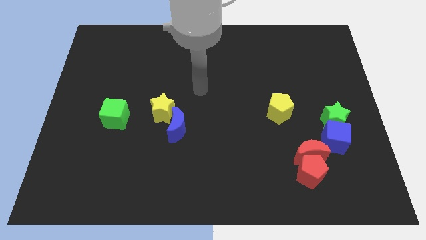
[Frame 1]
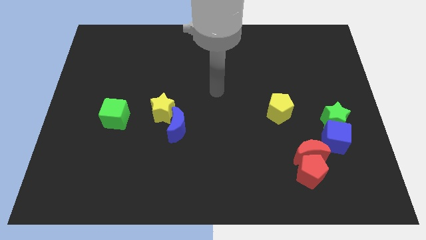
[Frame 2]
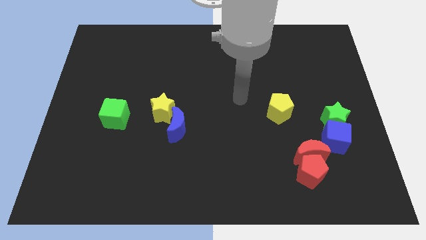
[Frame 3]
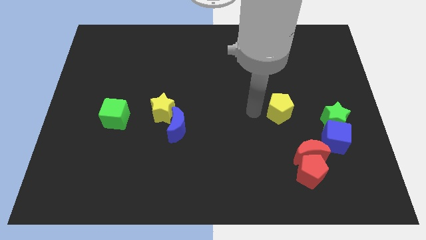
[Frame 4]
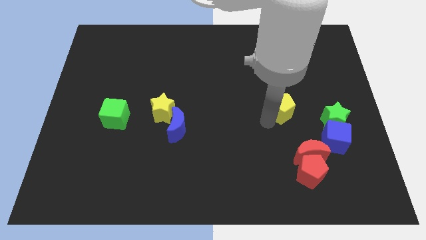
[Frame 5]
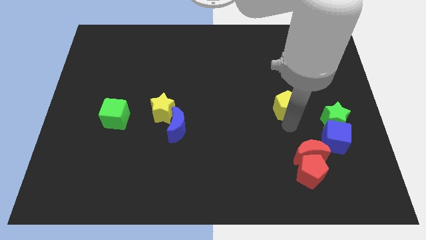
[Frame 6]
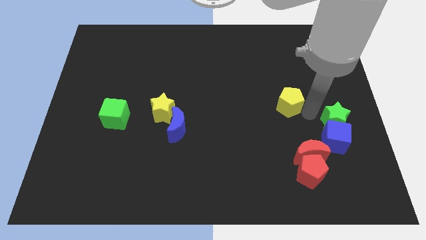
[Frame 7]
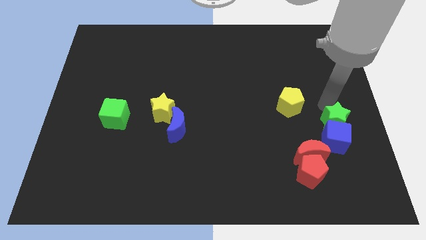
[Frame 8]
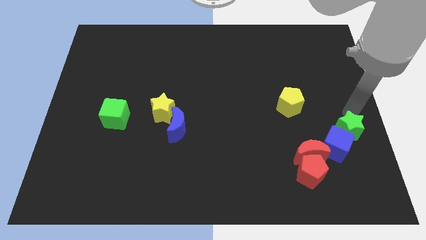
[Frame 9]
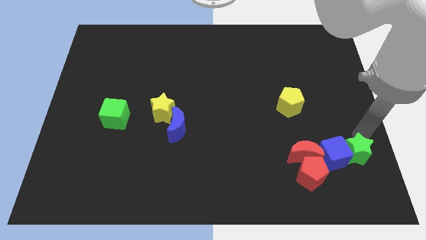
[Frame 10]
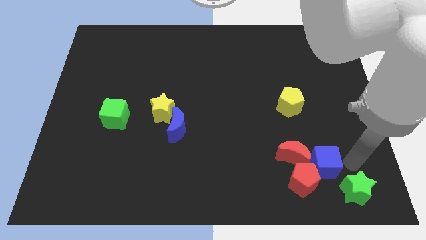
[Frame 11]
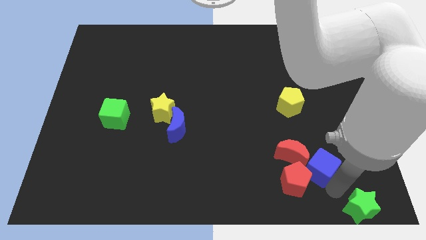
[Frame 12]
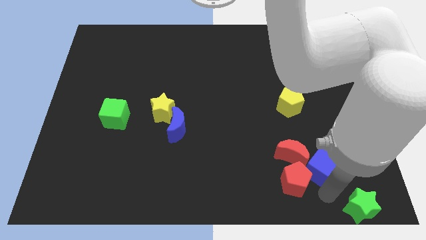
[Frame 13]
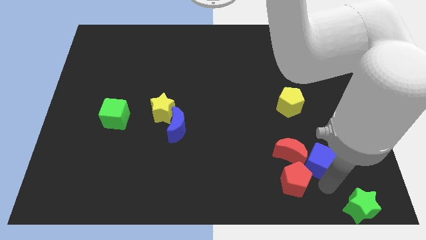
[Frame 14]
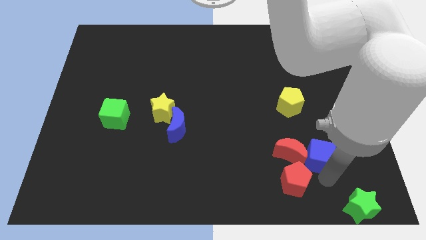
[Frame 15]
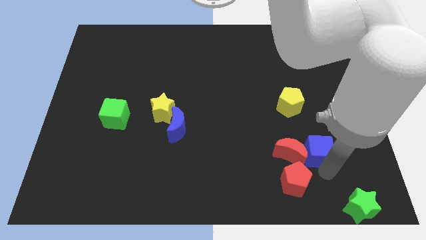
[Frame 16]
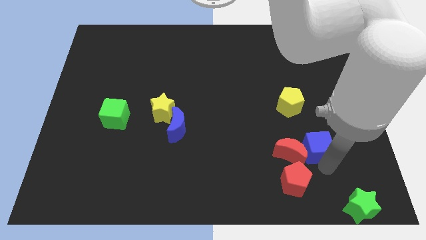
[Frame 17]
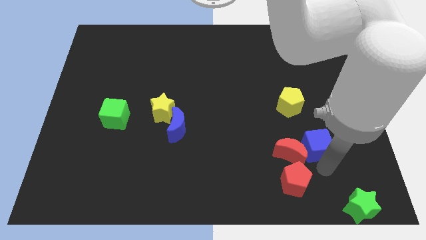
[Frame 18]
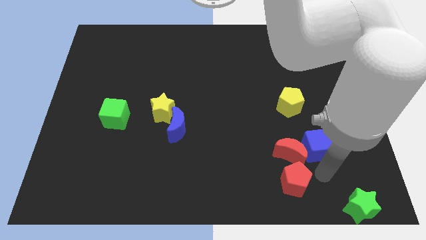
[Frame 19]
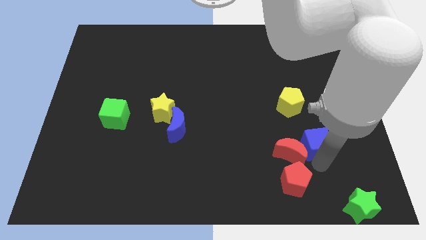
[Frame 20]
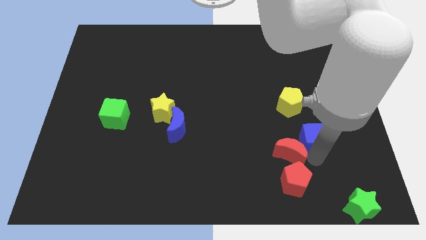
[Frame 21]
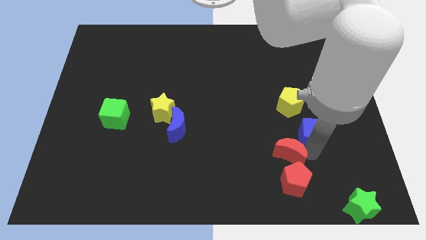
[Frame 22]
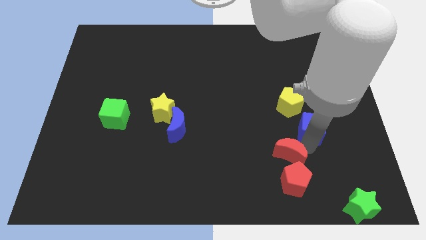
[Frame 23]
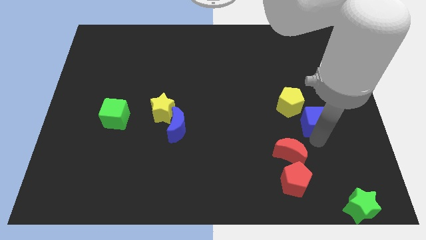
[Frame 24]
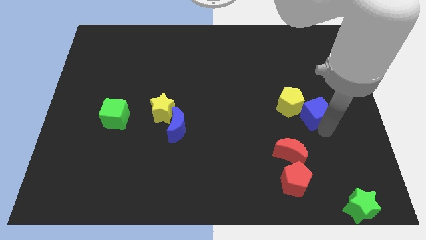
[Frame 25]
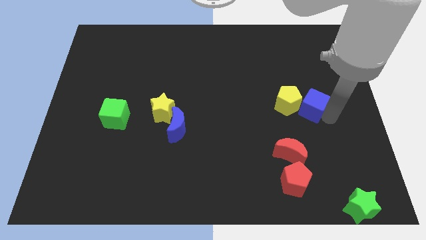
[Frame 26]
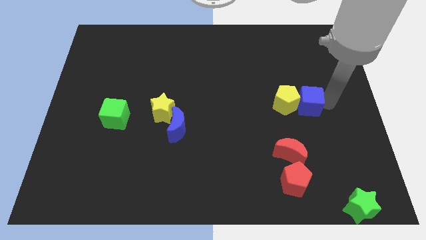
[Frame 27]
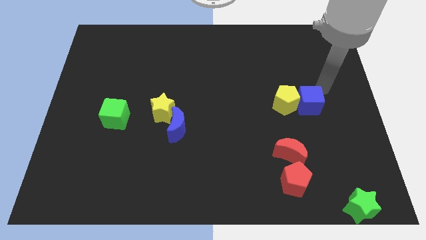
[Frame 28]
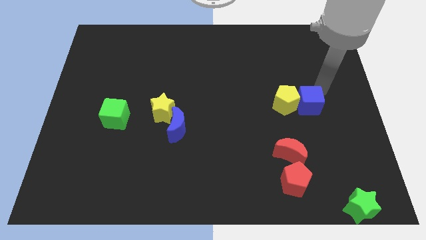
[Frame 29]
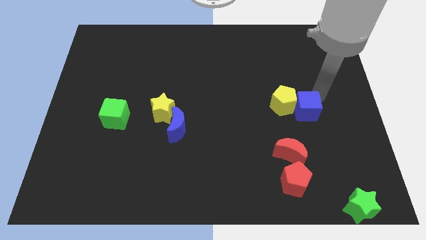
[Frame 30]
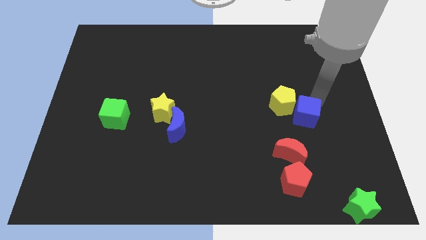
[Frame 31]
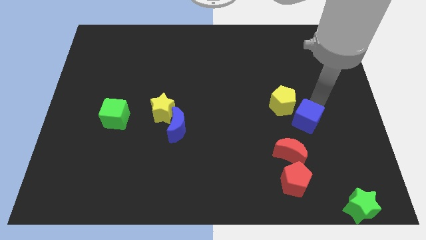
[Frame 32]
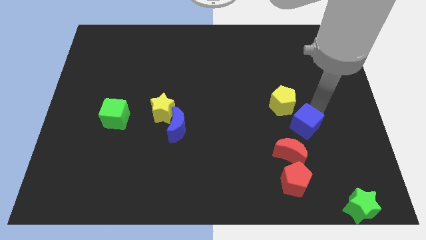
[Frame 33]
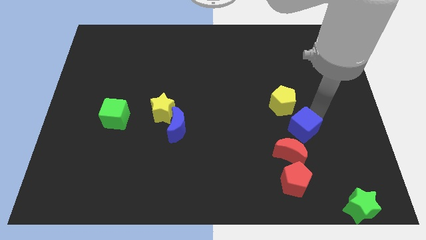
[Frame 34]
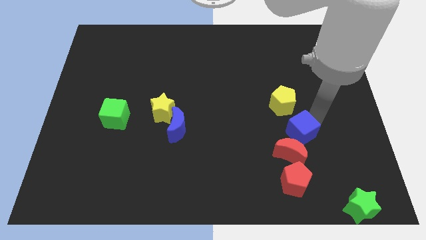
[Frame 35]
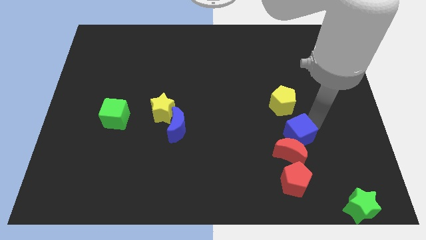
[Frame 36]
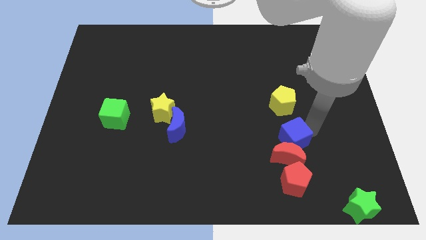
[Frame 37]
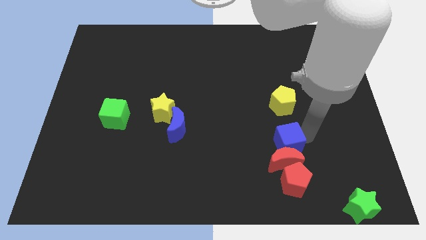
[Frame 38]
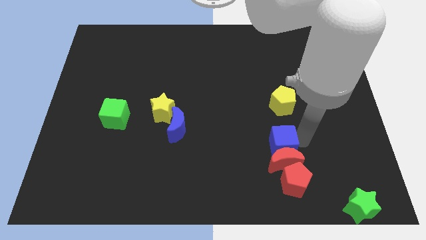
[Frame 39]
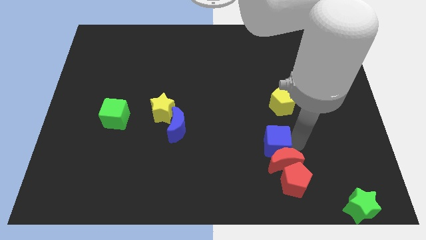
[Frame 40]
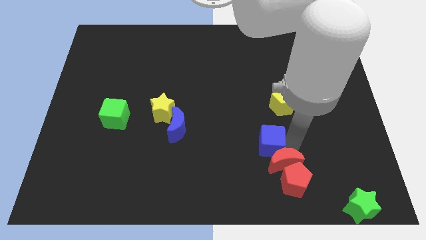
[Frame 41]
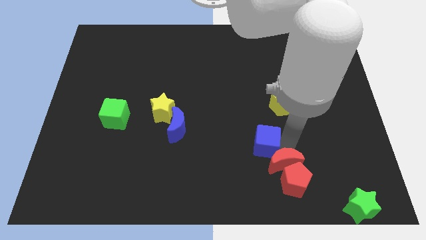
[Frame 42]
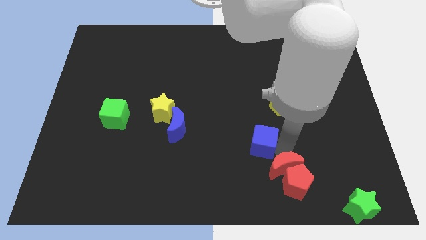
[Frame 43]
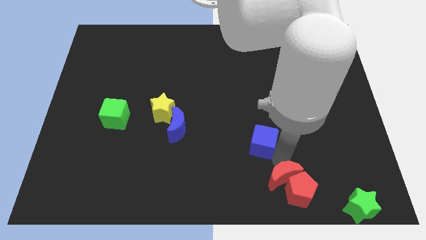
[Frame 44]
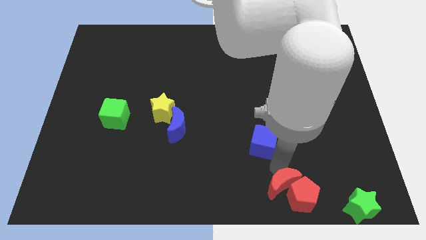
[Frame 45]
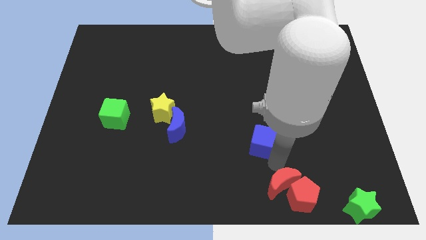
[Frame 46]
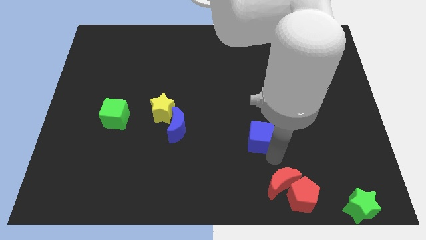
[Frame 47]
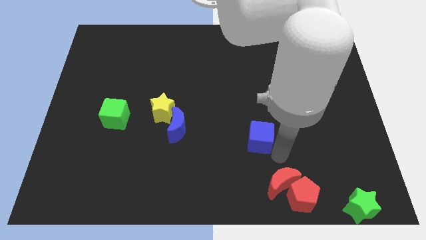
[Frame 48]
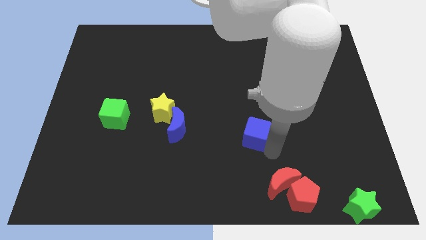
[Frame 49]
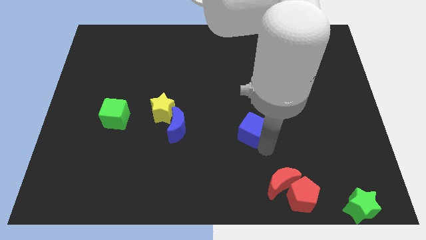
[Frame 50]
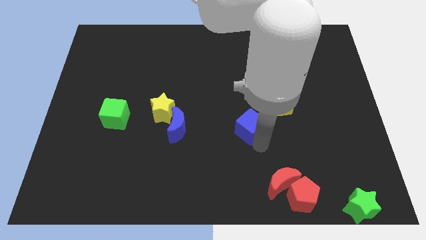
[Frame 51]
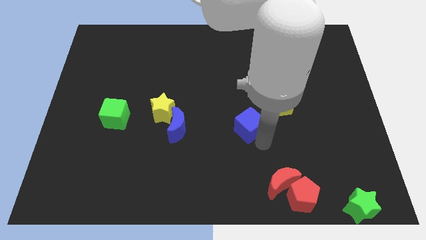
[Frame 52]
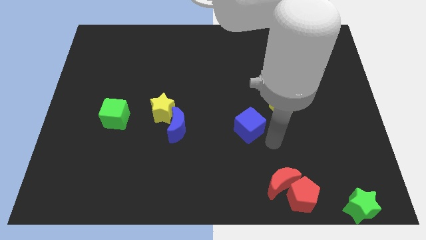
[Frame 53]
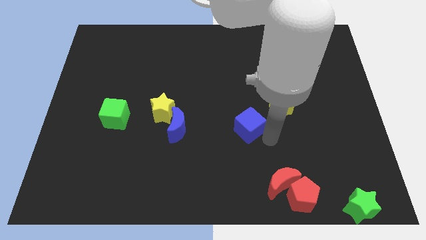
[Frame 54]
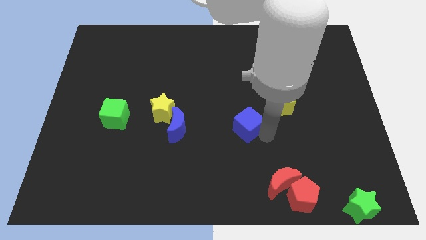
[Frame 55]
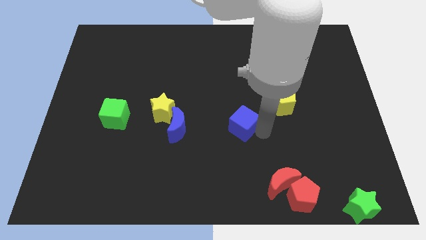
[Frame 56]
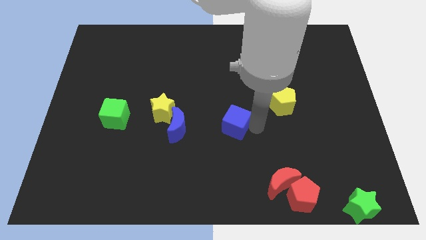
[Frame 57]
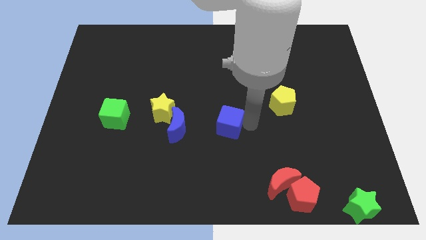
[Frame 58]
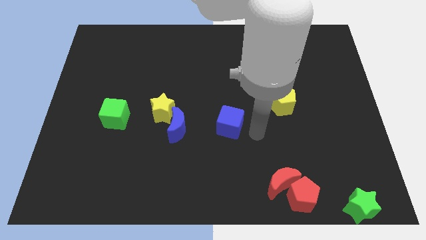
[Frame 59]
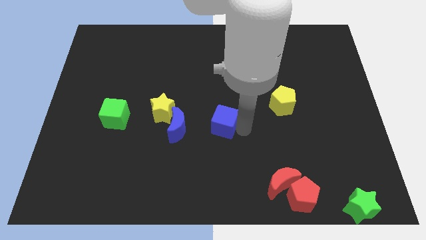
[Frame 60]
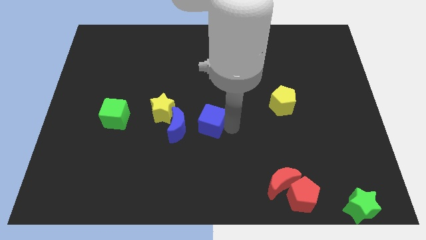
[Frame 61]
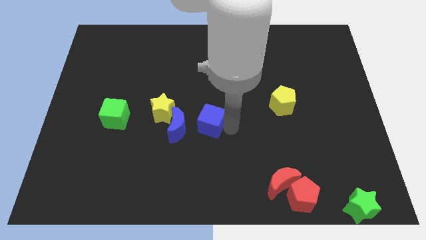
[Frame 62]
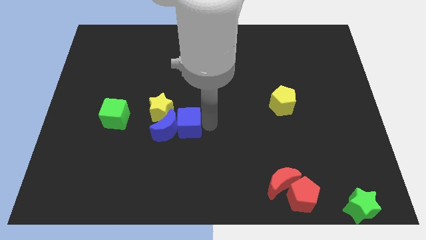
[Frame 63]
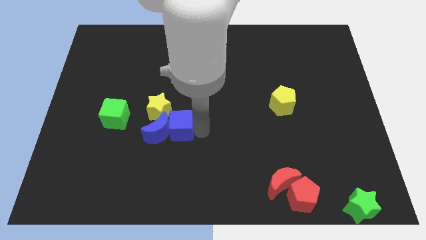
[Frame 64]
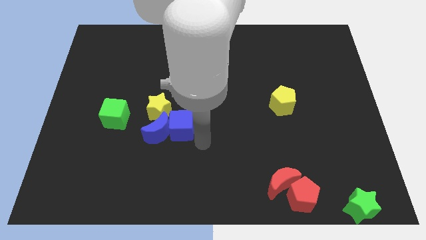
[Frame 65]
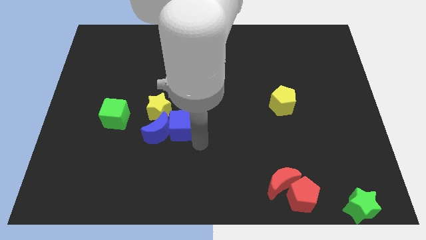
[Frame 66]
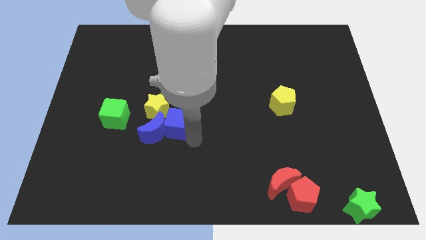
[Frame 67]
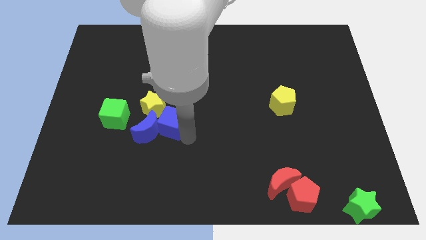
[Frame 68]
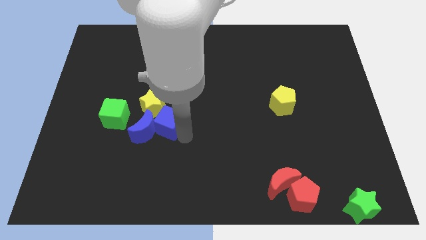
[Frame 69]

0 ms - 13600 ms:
push the blue cube to the yellow star
